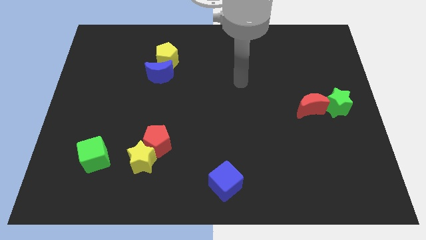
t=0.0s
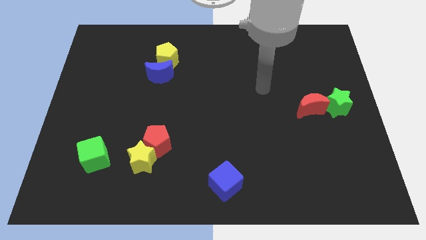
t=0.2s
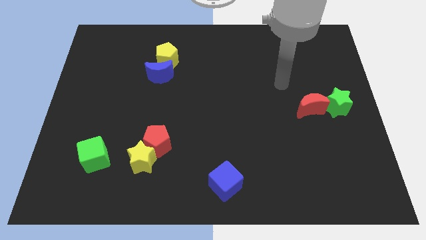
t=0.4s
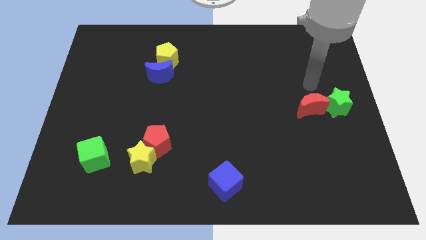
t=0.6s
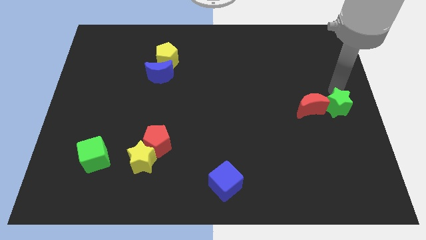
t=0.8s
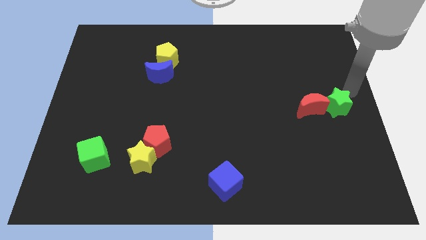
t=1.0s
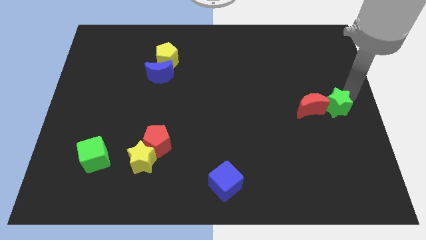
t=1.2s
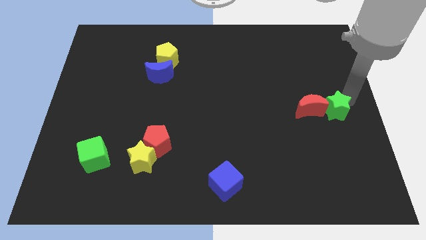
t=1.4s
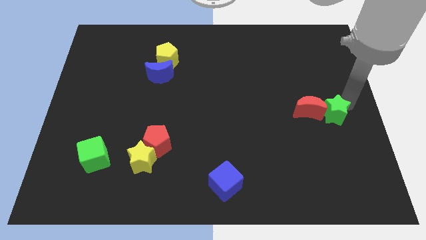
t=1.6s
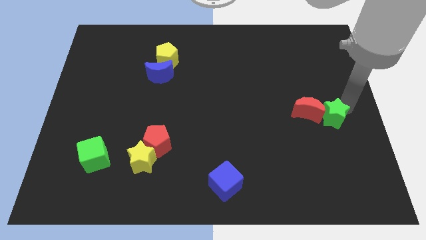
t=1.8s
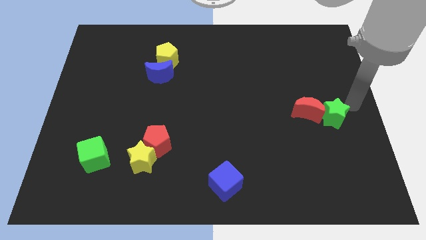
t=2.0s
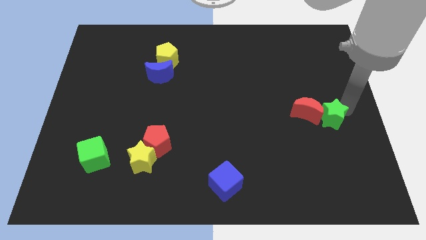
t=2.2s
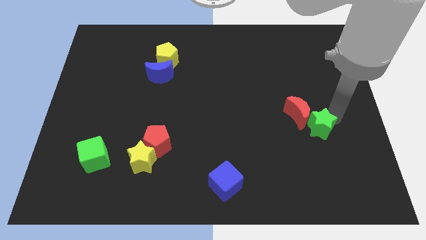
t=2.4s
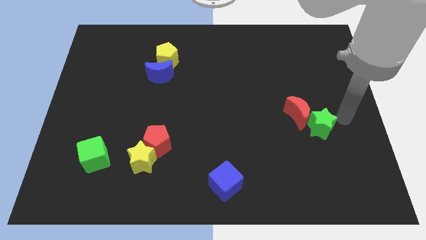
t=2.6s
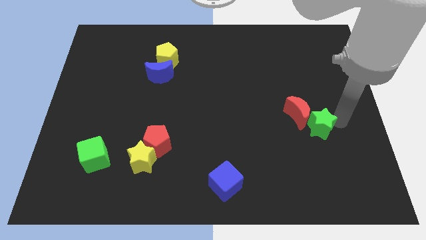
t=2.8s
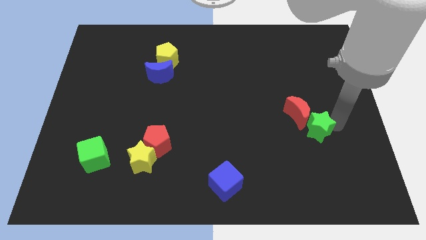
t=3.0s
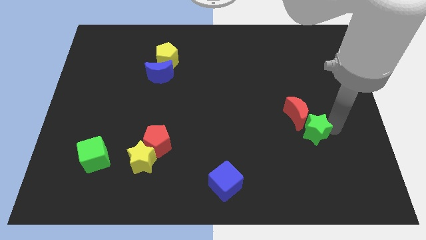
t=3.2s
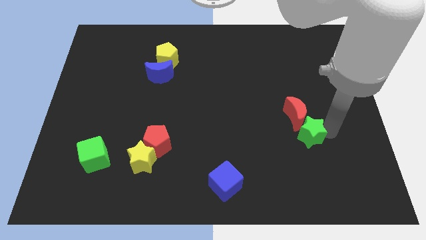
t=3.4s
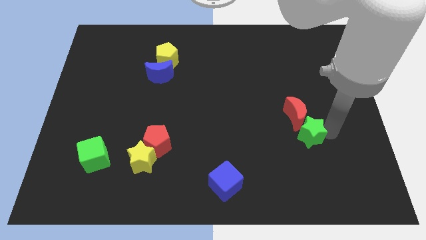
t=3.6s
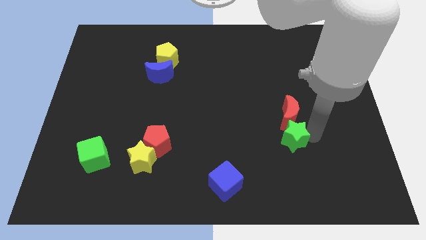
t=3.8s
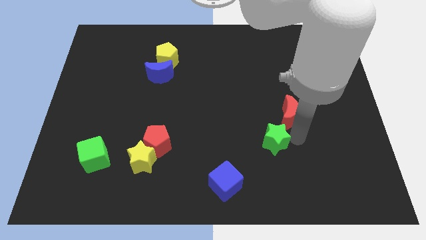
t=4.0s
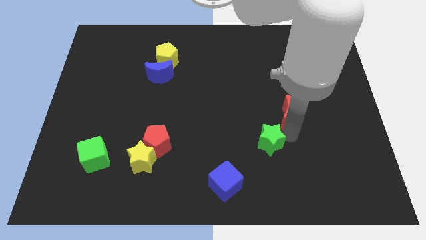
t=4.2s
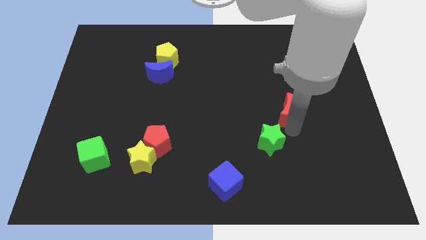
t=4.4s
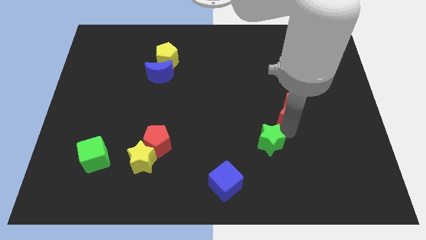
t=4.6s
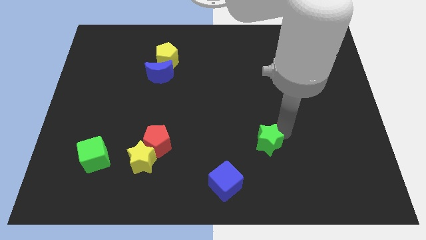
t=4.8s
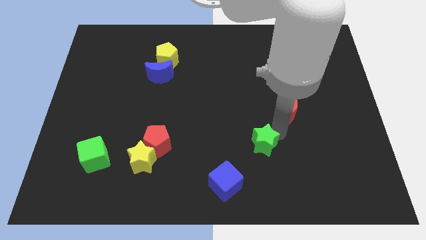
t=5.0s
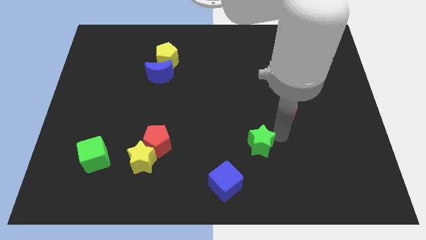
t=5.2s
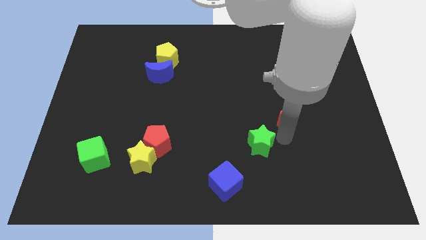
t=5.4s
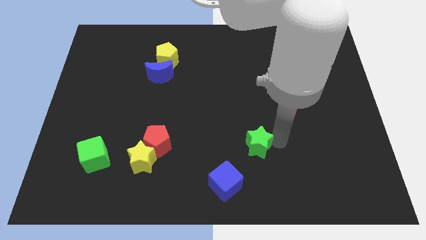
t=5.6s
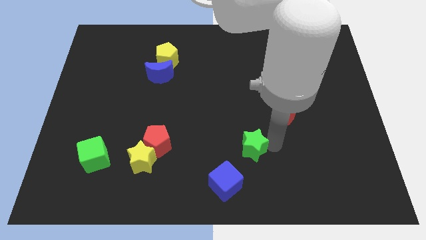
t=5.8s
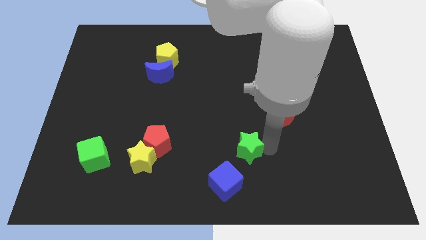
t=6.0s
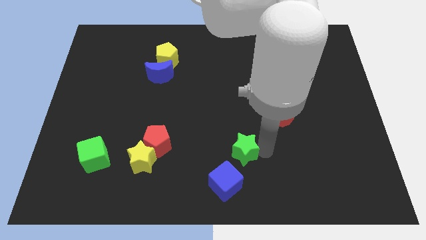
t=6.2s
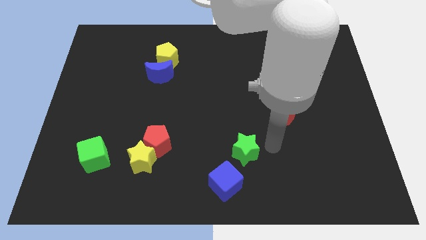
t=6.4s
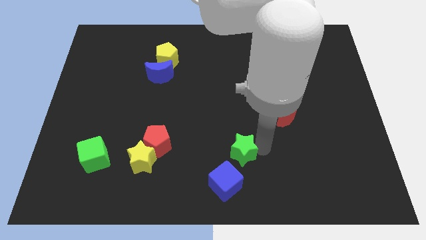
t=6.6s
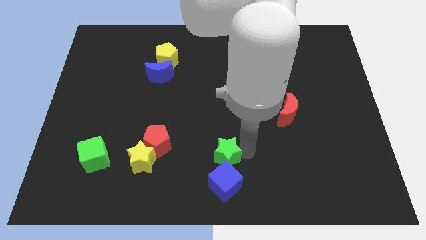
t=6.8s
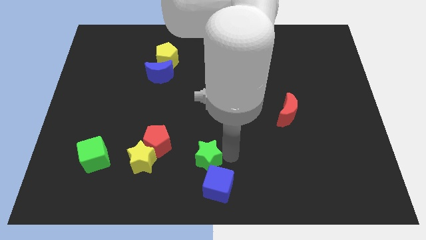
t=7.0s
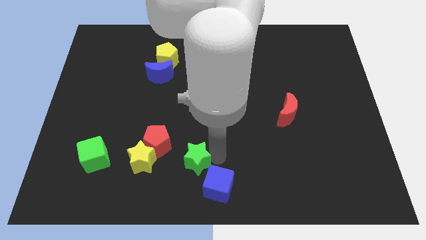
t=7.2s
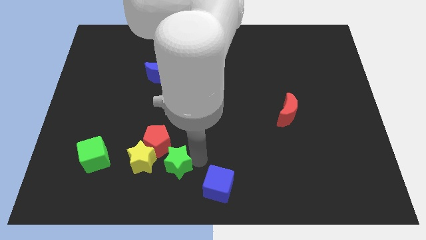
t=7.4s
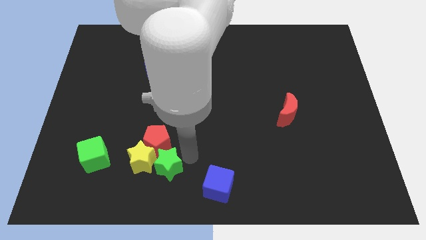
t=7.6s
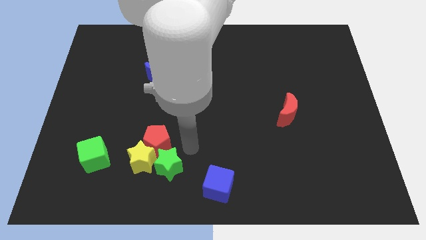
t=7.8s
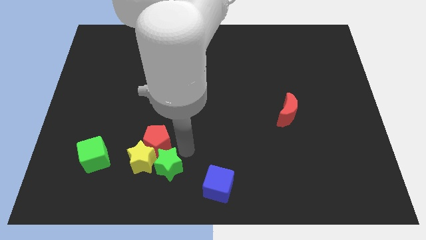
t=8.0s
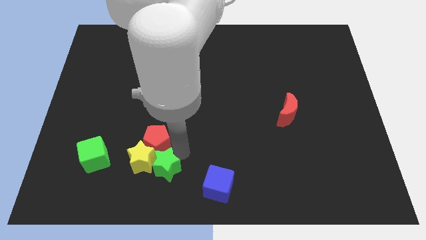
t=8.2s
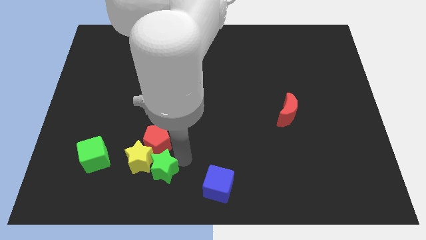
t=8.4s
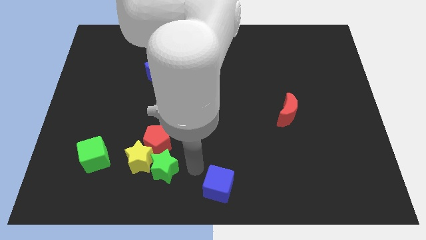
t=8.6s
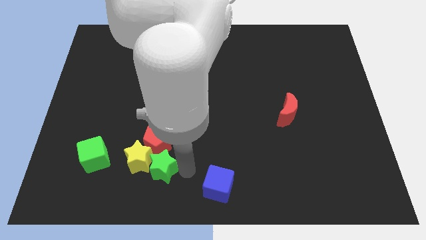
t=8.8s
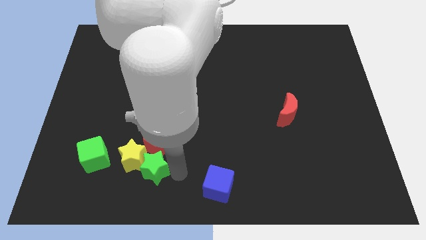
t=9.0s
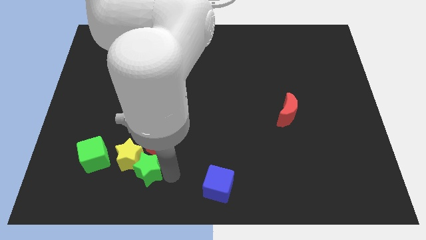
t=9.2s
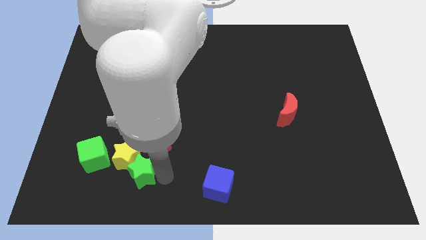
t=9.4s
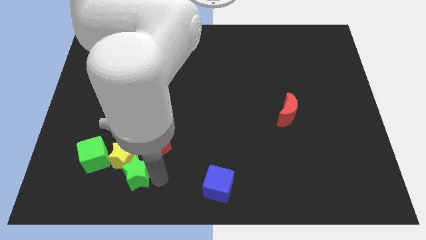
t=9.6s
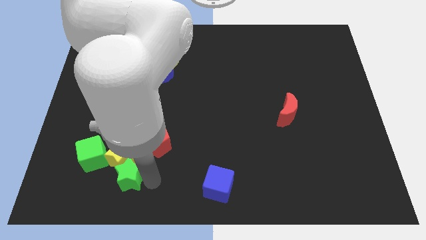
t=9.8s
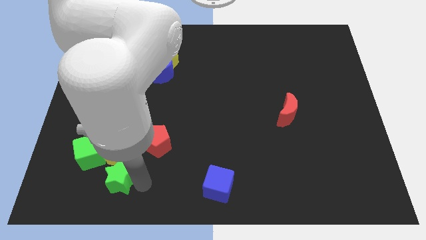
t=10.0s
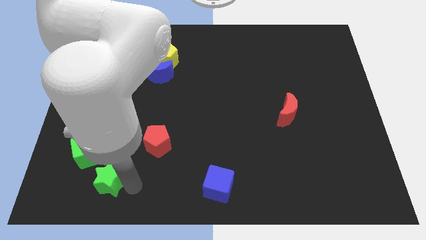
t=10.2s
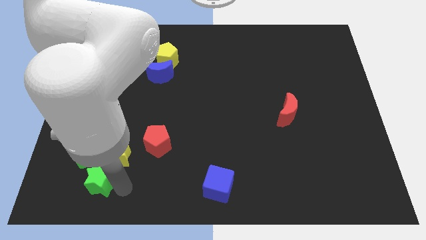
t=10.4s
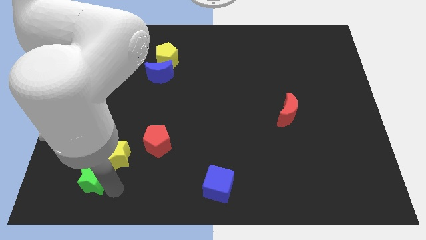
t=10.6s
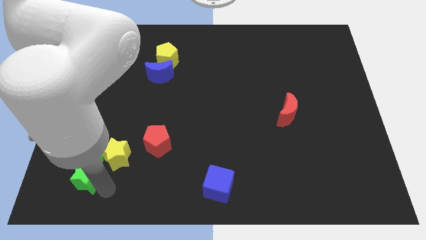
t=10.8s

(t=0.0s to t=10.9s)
slide the green star close to the green cube
